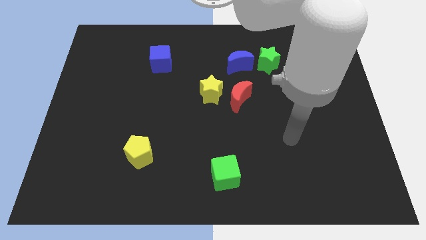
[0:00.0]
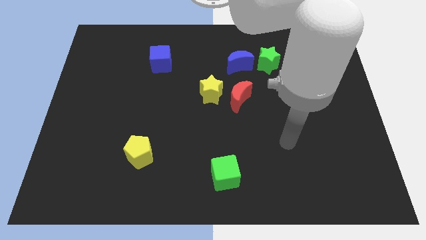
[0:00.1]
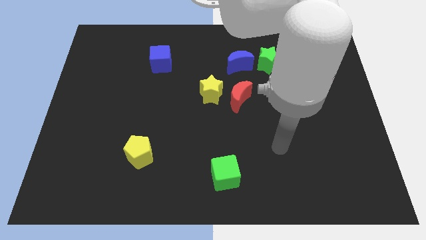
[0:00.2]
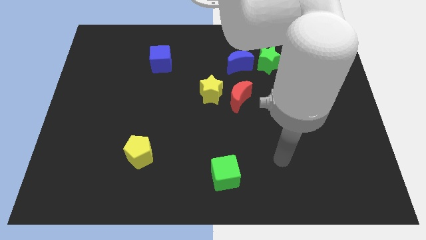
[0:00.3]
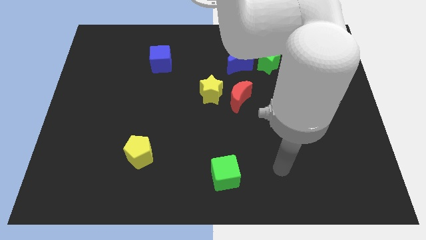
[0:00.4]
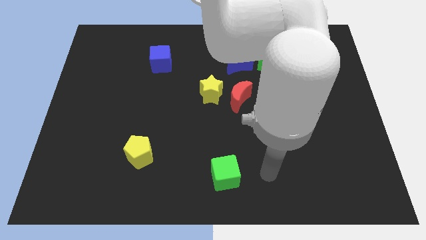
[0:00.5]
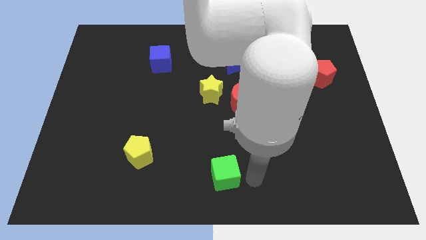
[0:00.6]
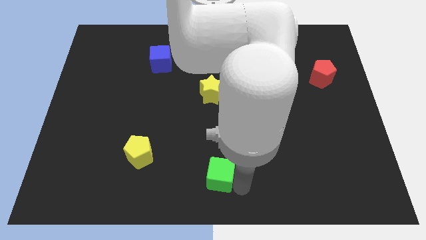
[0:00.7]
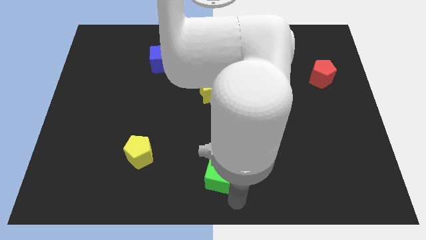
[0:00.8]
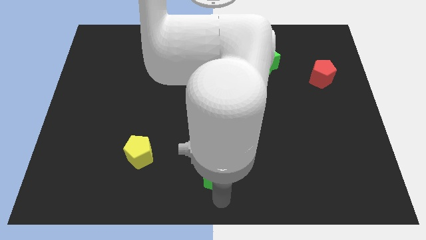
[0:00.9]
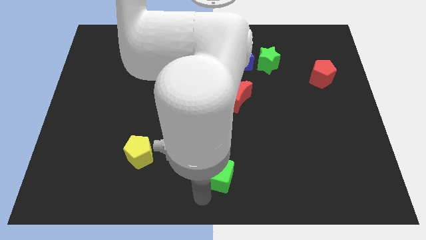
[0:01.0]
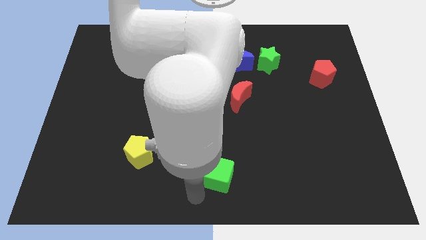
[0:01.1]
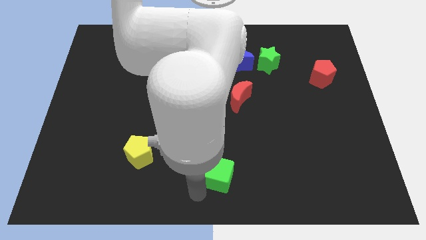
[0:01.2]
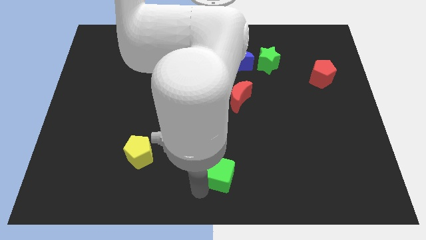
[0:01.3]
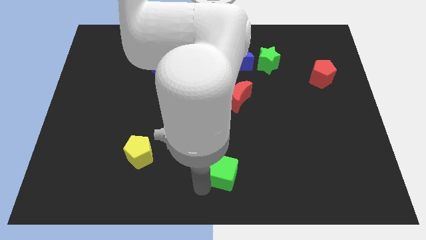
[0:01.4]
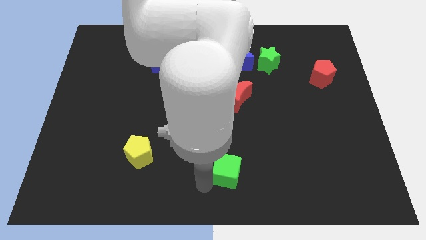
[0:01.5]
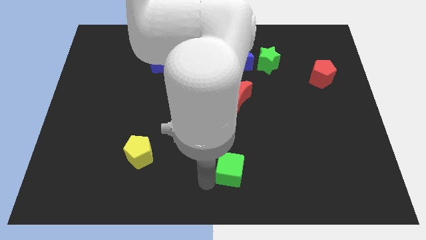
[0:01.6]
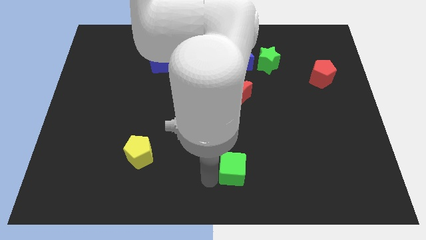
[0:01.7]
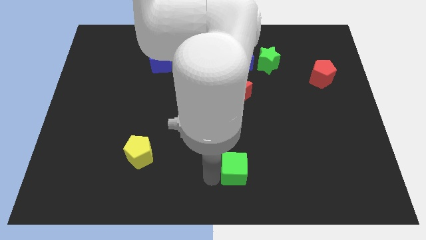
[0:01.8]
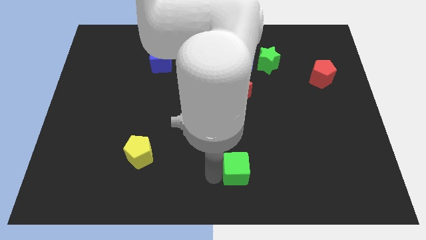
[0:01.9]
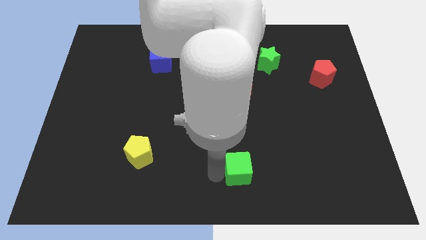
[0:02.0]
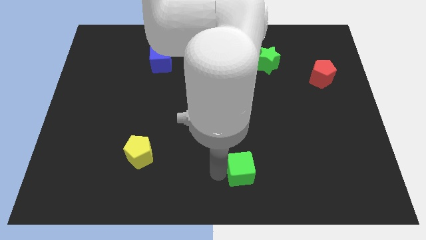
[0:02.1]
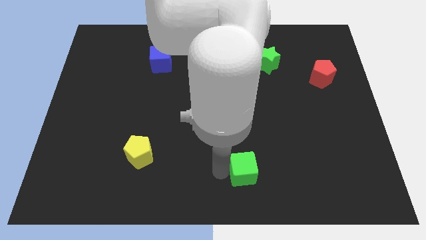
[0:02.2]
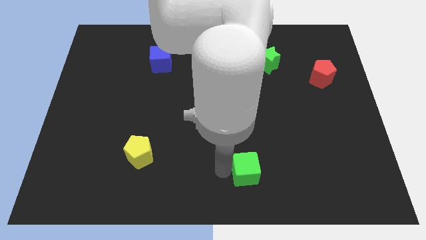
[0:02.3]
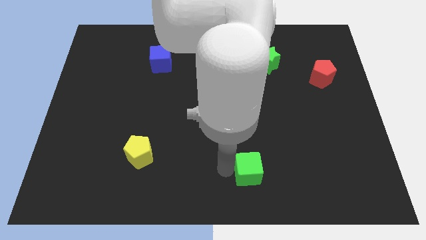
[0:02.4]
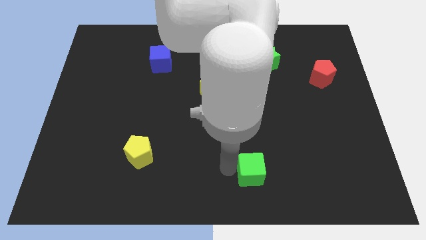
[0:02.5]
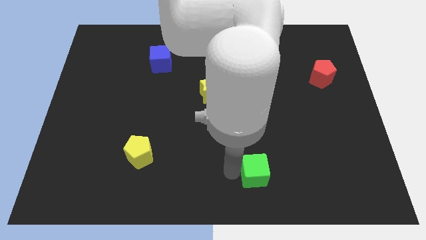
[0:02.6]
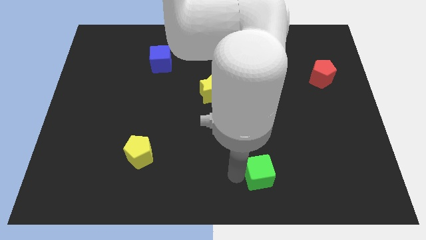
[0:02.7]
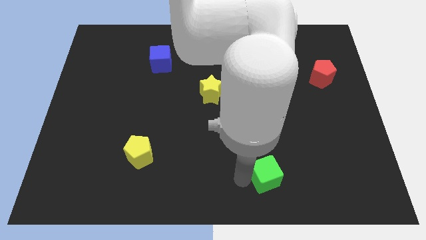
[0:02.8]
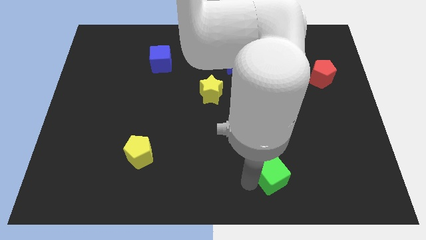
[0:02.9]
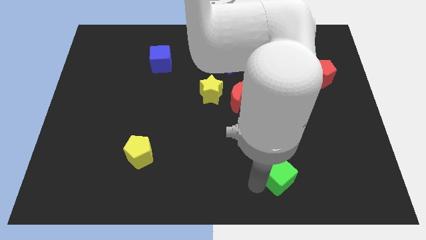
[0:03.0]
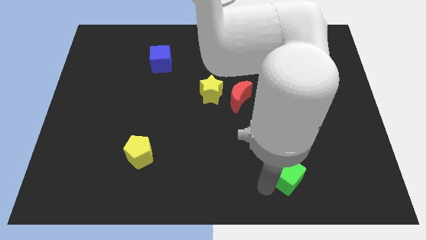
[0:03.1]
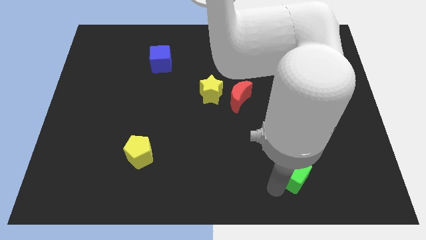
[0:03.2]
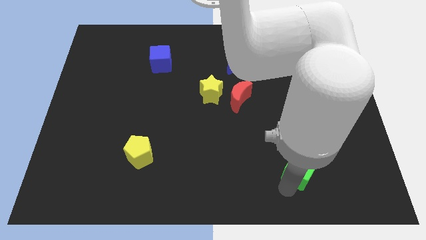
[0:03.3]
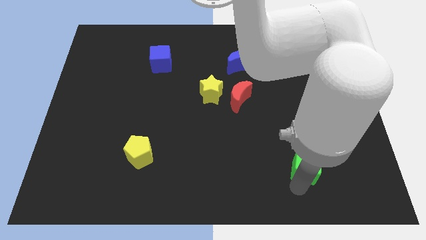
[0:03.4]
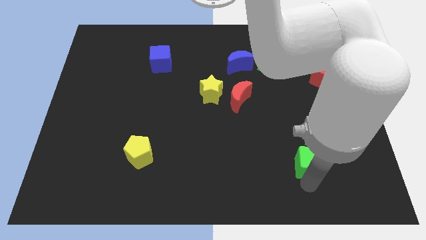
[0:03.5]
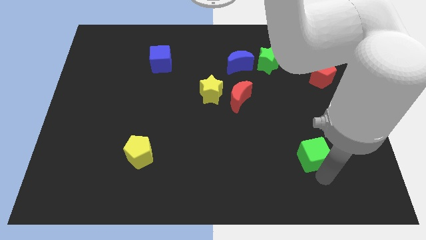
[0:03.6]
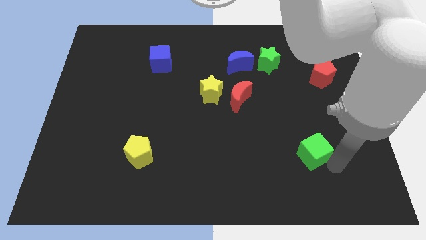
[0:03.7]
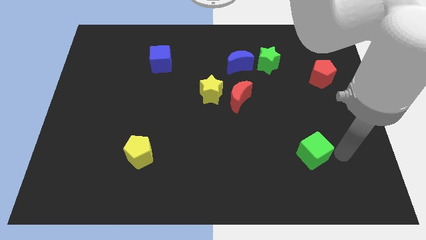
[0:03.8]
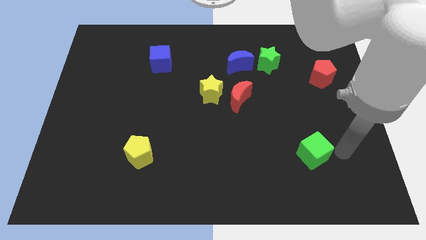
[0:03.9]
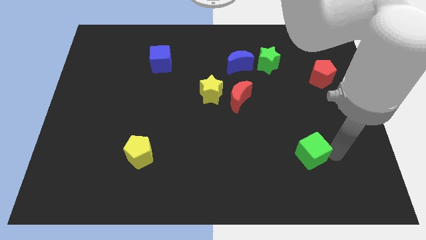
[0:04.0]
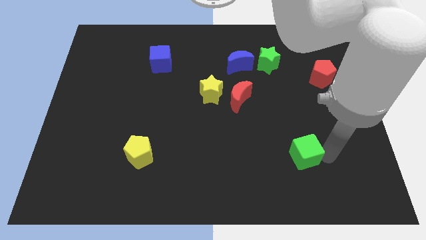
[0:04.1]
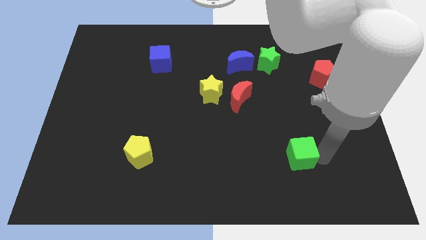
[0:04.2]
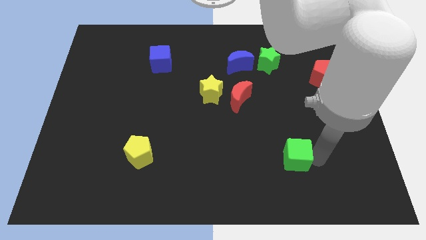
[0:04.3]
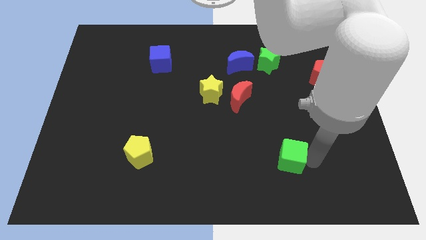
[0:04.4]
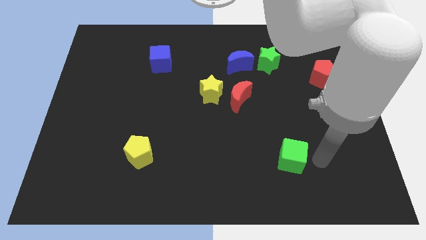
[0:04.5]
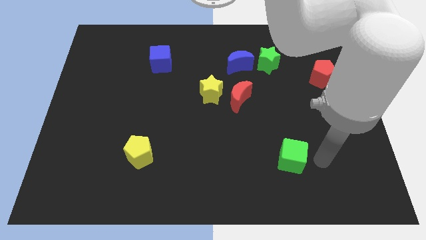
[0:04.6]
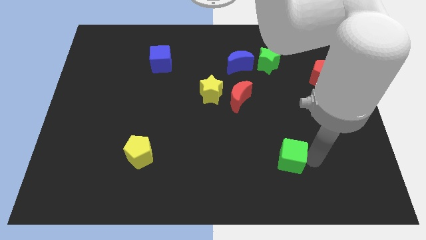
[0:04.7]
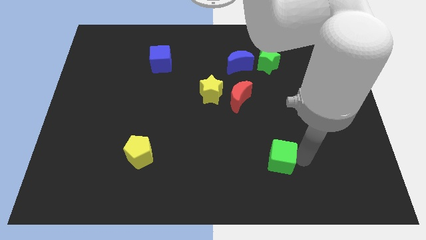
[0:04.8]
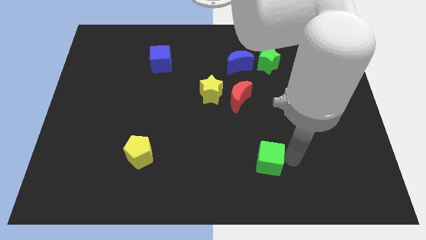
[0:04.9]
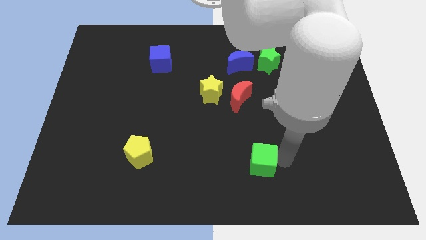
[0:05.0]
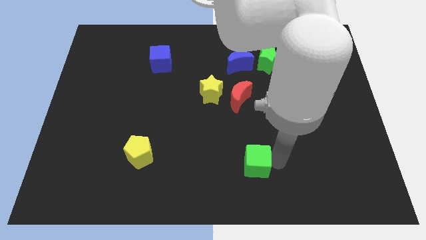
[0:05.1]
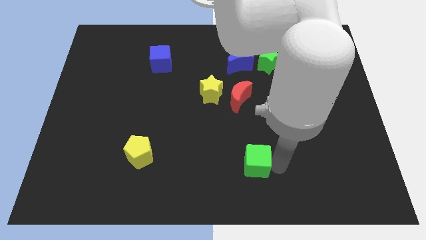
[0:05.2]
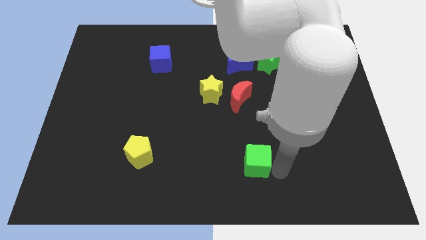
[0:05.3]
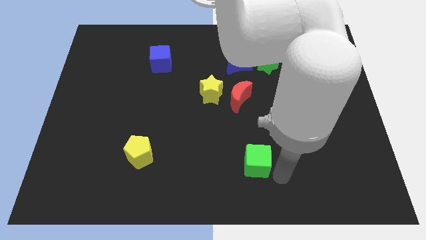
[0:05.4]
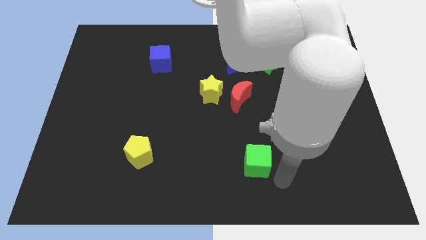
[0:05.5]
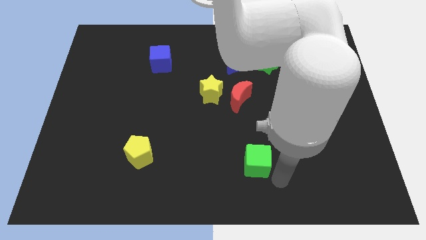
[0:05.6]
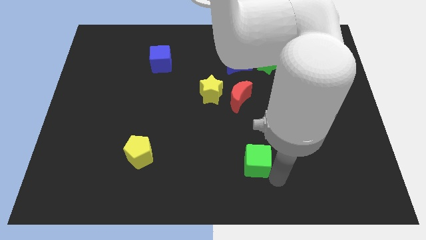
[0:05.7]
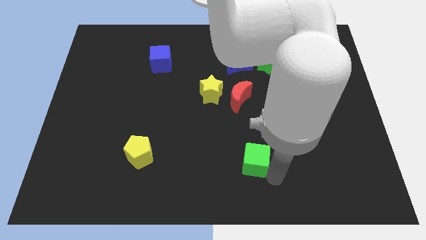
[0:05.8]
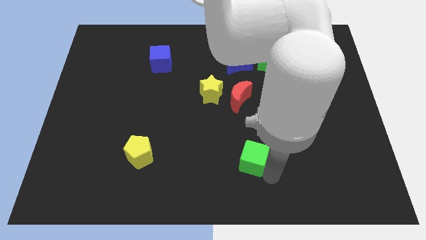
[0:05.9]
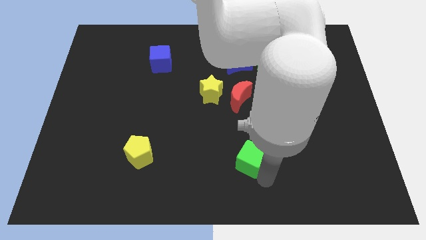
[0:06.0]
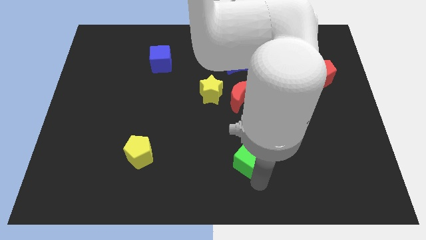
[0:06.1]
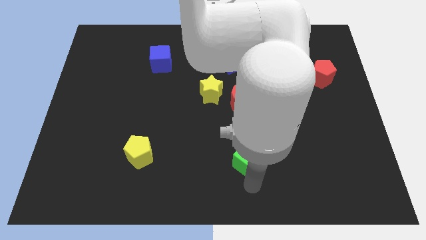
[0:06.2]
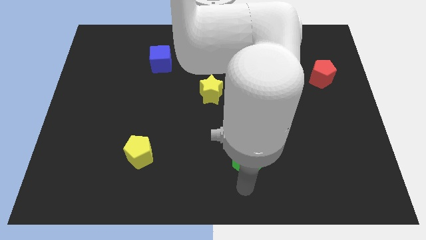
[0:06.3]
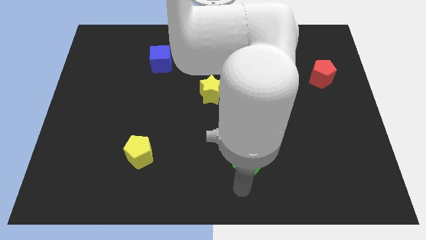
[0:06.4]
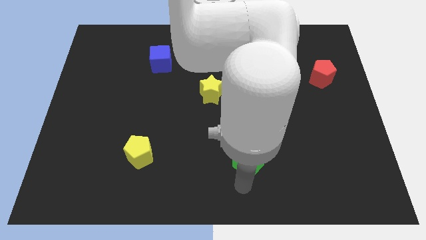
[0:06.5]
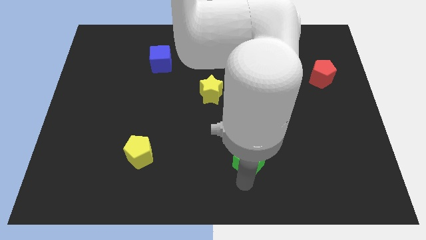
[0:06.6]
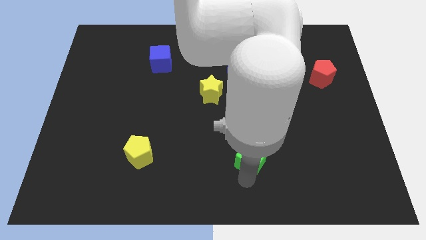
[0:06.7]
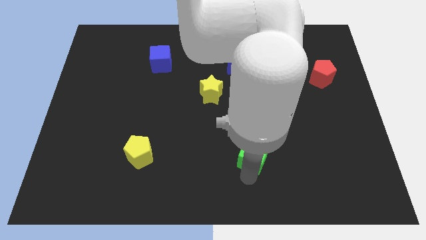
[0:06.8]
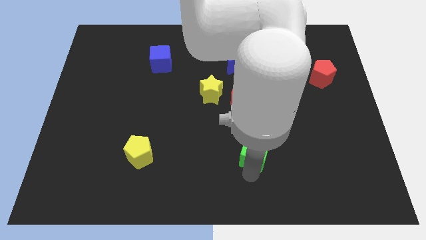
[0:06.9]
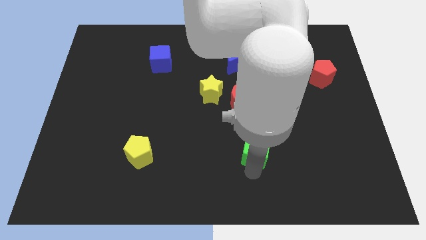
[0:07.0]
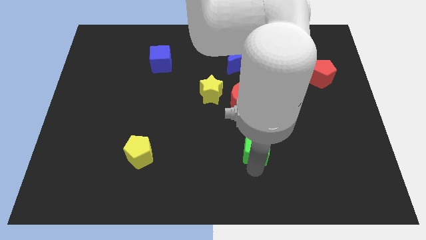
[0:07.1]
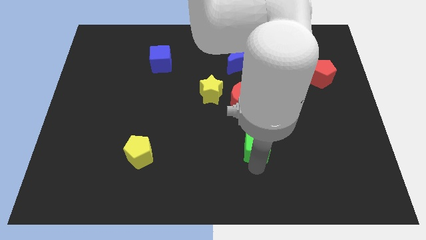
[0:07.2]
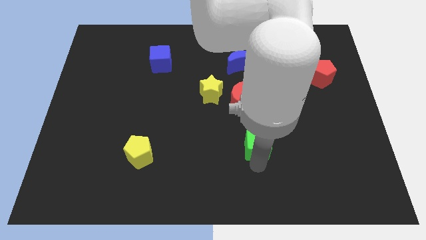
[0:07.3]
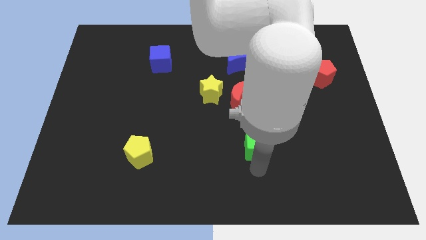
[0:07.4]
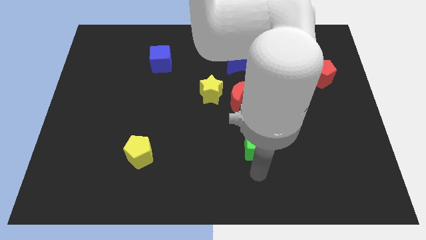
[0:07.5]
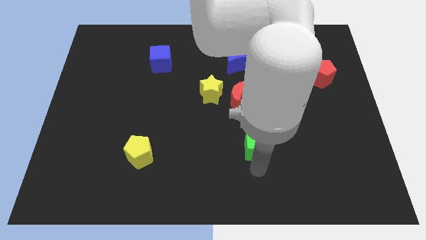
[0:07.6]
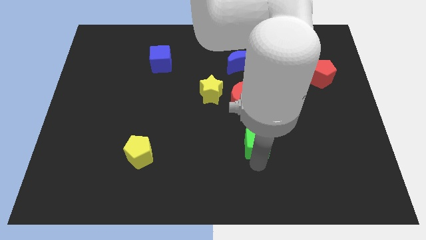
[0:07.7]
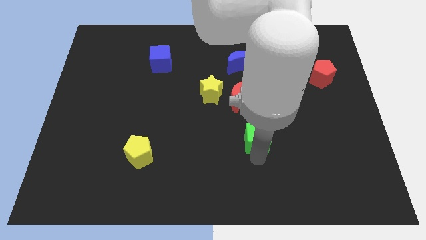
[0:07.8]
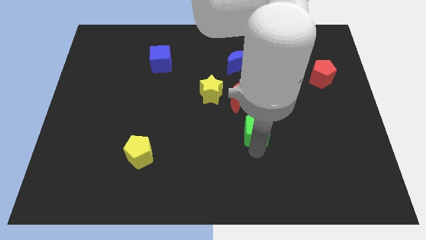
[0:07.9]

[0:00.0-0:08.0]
slide the green cube diagonally down and to the right of the red moon
